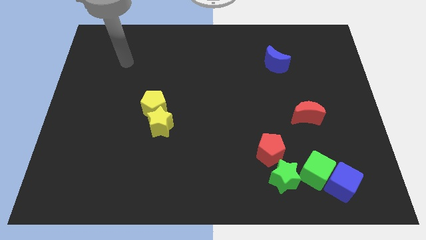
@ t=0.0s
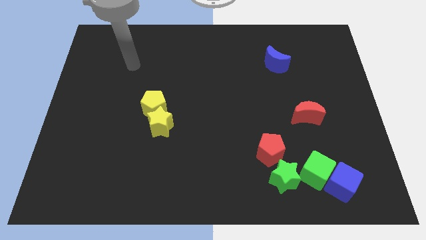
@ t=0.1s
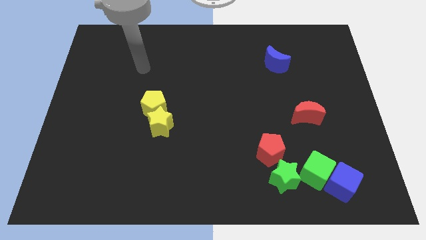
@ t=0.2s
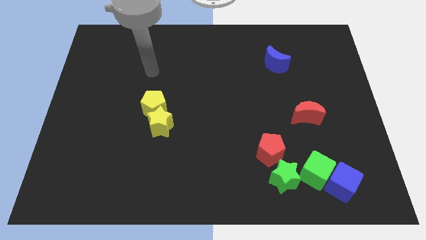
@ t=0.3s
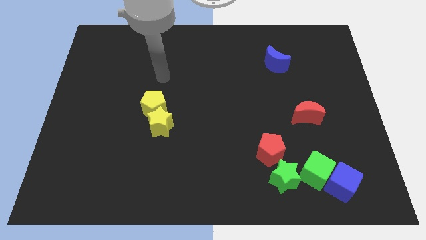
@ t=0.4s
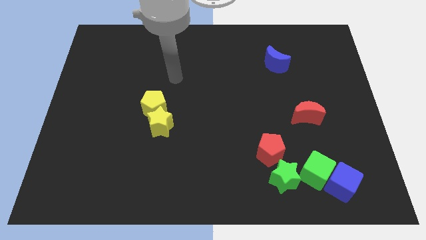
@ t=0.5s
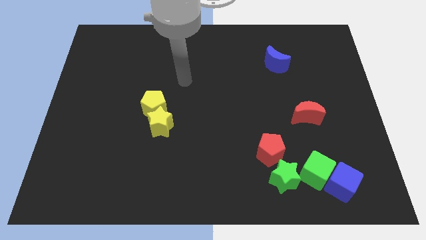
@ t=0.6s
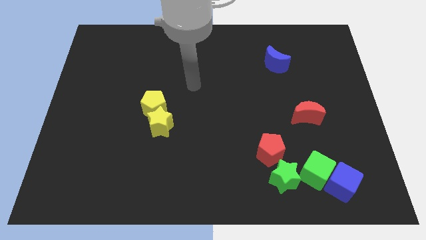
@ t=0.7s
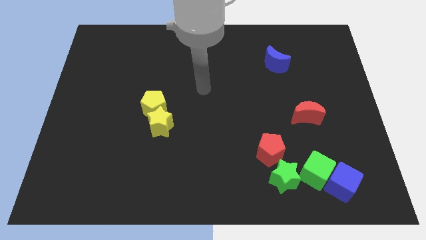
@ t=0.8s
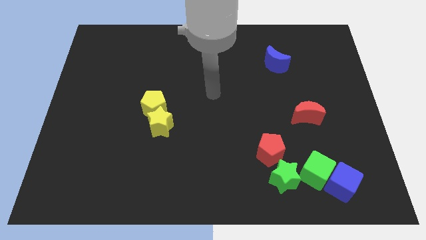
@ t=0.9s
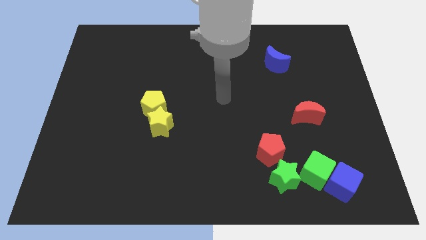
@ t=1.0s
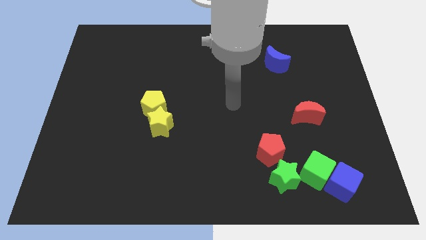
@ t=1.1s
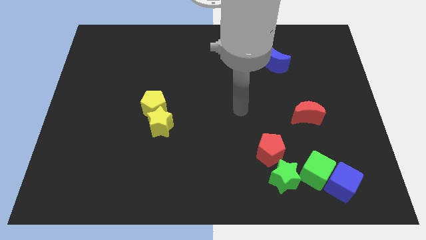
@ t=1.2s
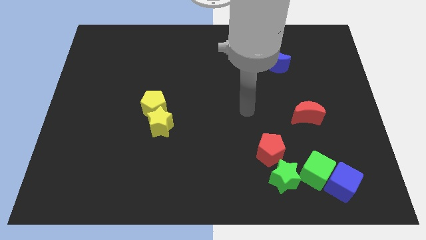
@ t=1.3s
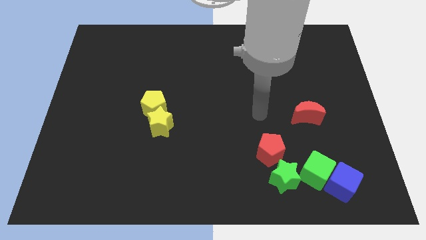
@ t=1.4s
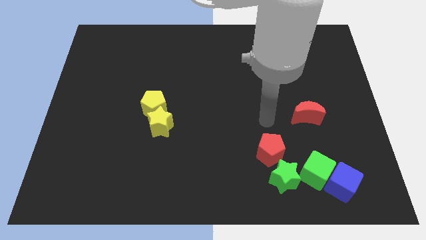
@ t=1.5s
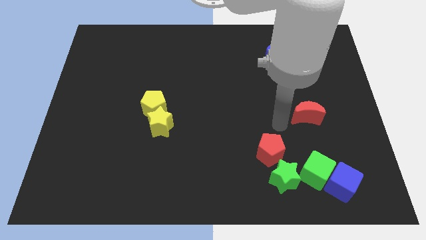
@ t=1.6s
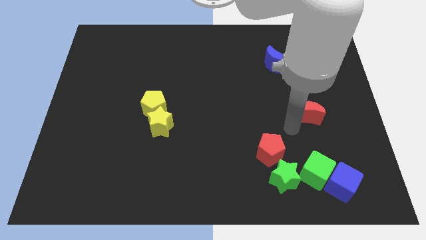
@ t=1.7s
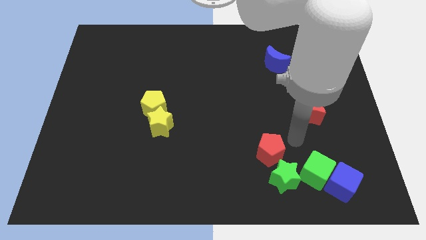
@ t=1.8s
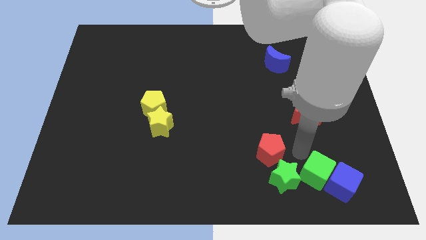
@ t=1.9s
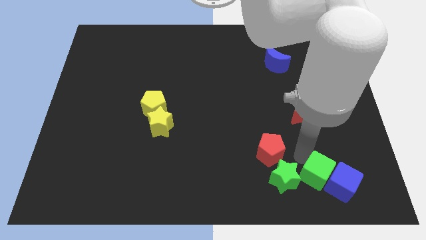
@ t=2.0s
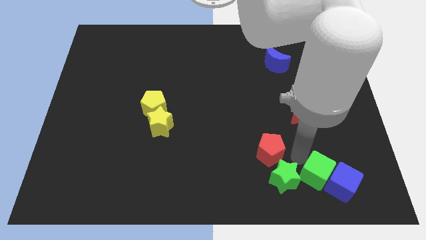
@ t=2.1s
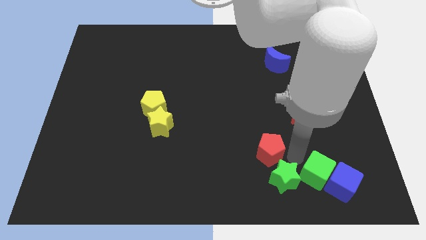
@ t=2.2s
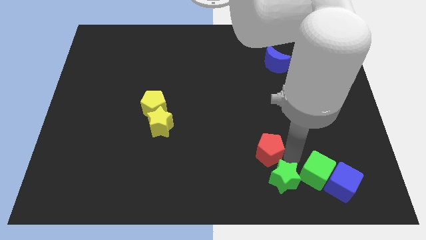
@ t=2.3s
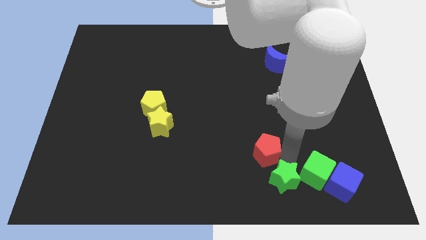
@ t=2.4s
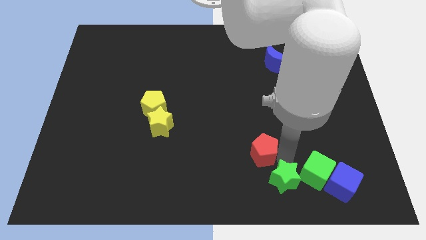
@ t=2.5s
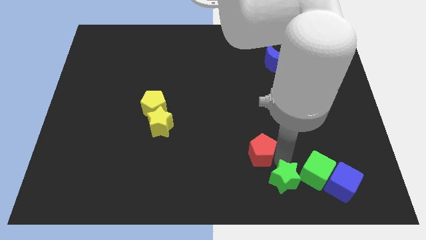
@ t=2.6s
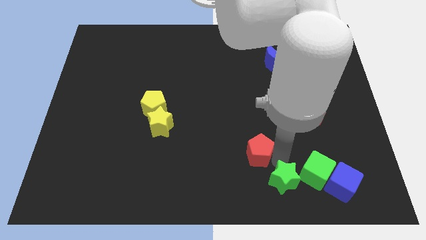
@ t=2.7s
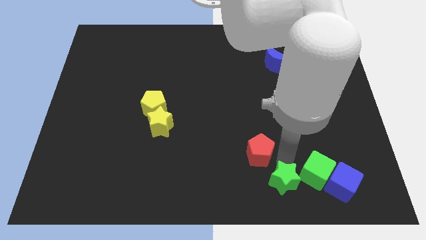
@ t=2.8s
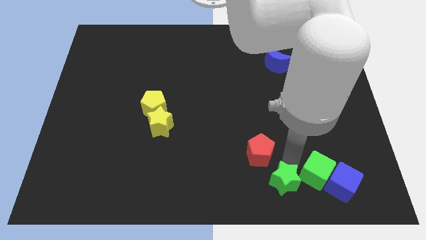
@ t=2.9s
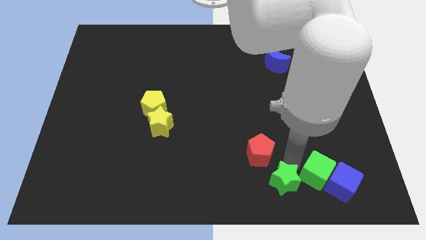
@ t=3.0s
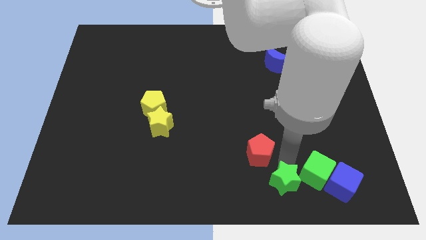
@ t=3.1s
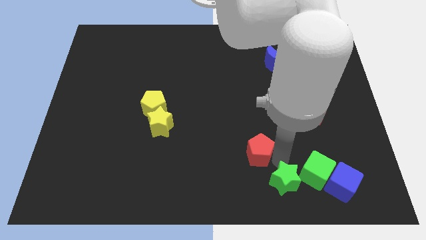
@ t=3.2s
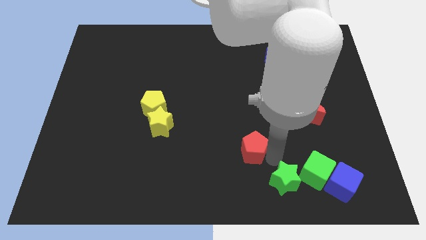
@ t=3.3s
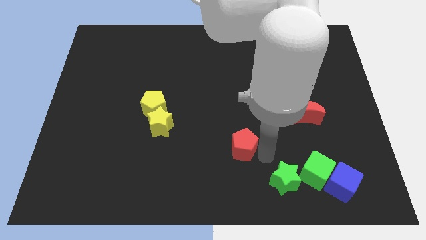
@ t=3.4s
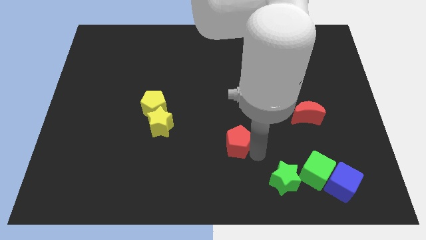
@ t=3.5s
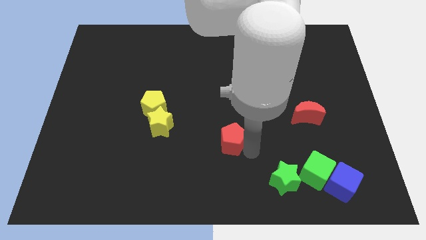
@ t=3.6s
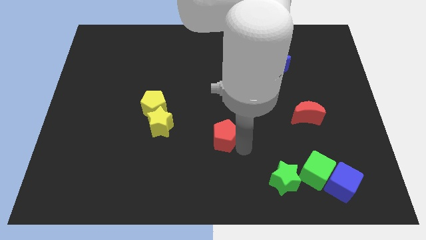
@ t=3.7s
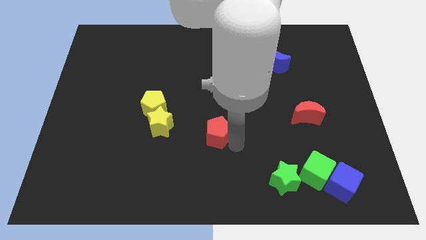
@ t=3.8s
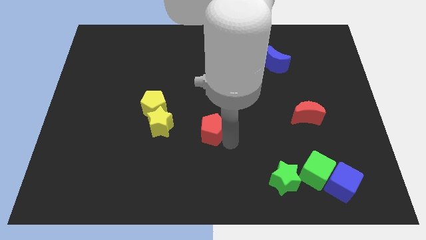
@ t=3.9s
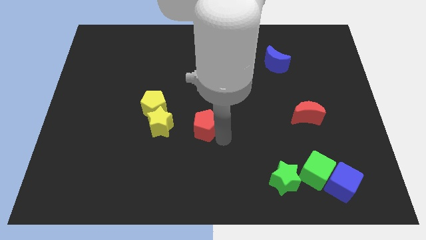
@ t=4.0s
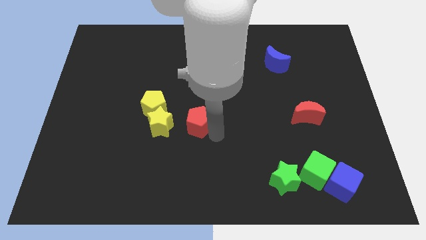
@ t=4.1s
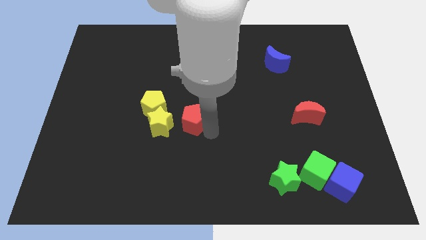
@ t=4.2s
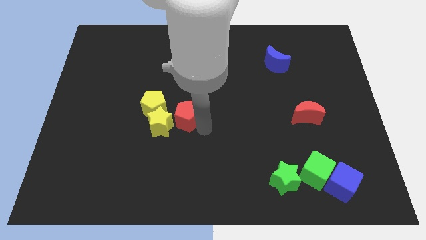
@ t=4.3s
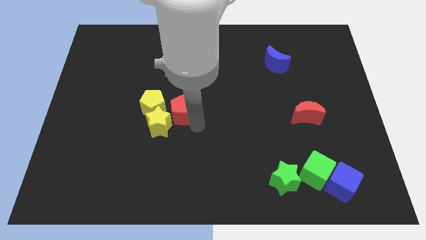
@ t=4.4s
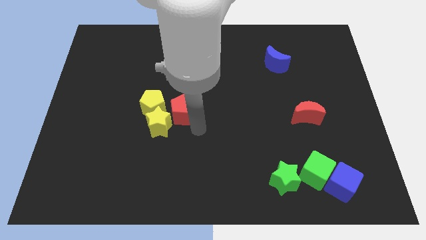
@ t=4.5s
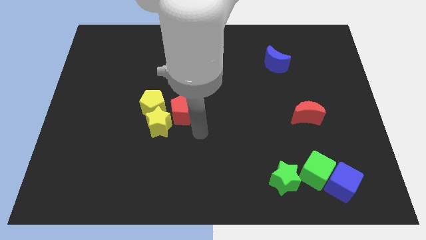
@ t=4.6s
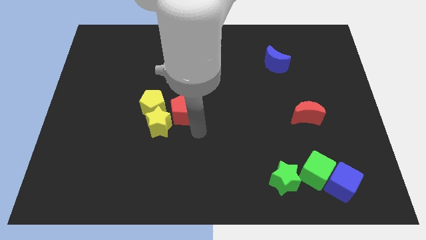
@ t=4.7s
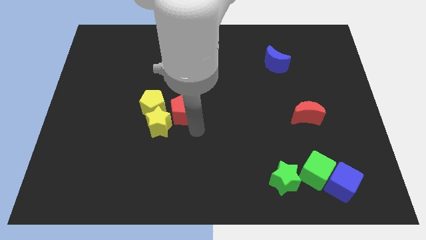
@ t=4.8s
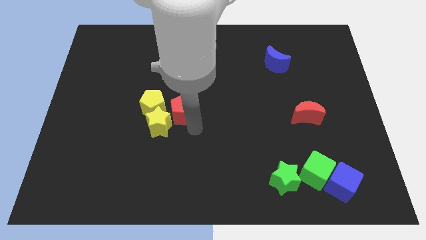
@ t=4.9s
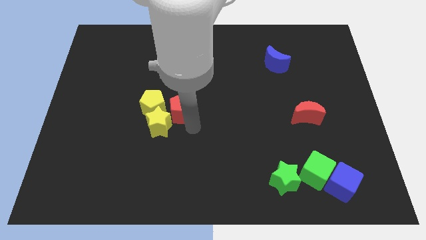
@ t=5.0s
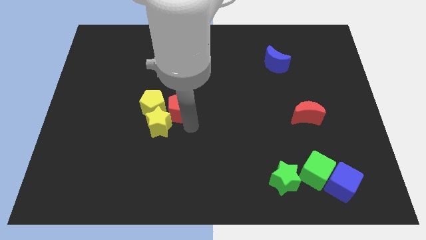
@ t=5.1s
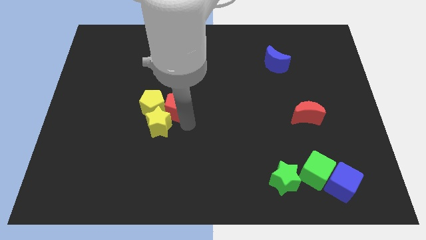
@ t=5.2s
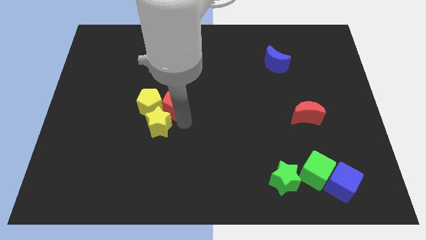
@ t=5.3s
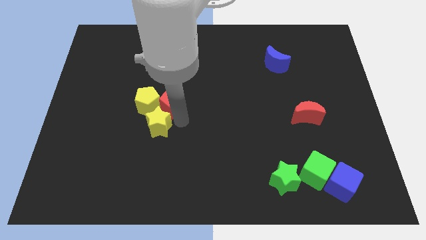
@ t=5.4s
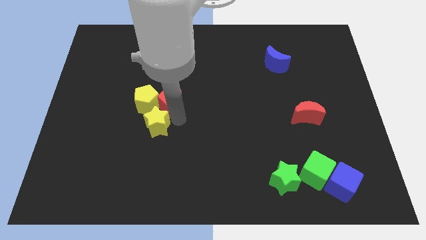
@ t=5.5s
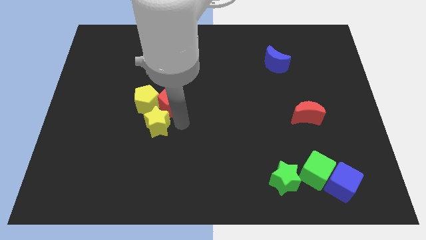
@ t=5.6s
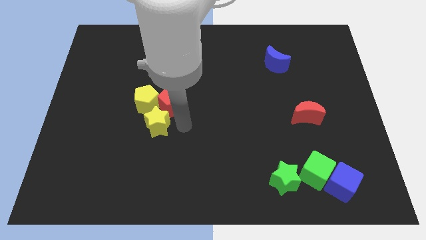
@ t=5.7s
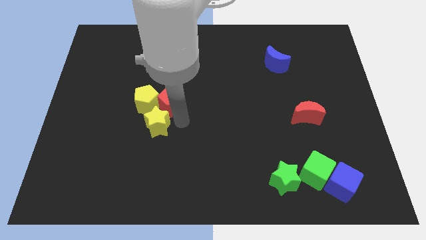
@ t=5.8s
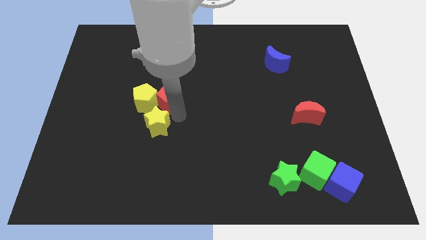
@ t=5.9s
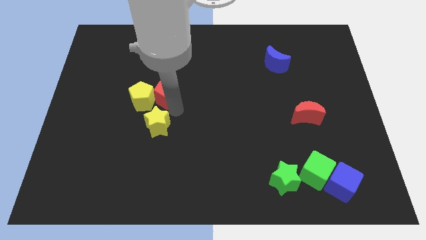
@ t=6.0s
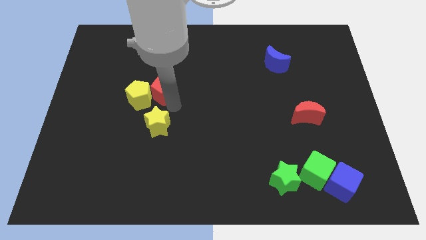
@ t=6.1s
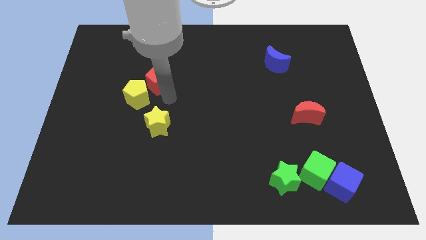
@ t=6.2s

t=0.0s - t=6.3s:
put the red pentagon to the top of the yellow pentagon

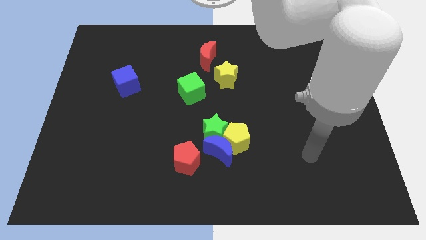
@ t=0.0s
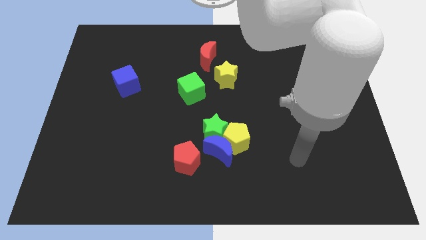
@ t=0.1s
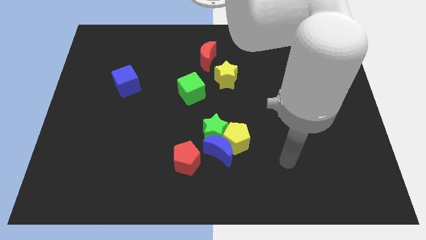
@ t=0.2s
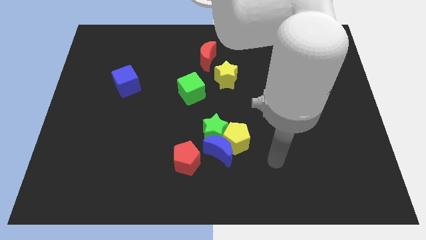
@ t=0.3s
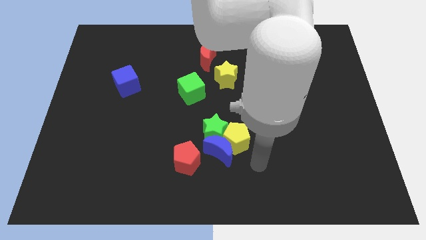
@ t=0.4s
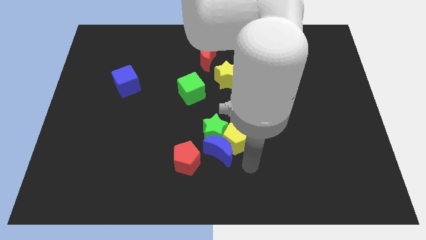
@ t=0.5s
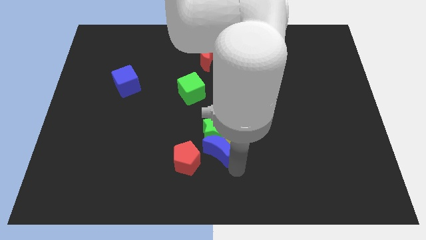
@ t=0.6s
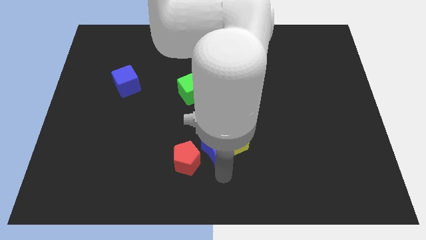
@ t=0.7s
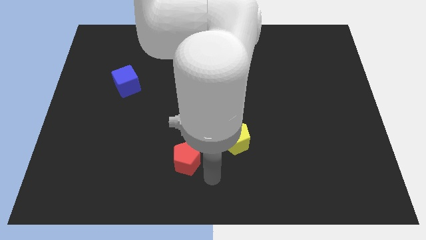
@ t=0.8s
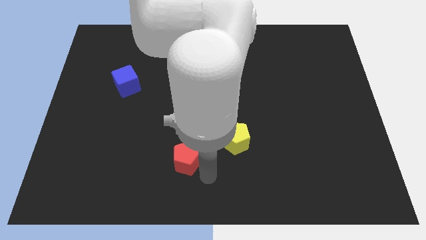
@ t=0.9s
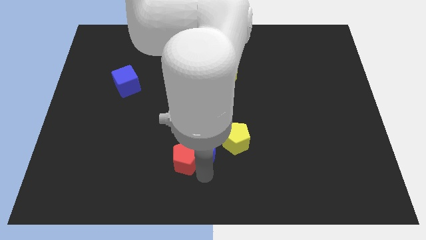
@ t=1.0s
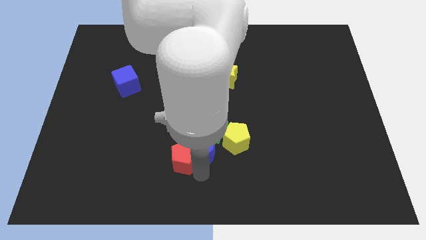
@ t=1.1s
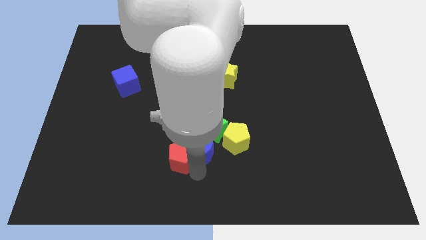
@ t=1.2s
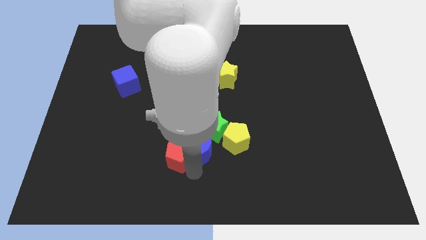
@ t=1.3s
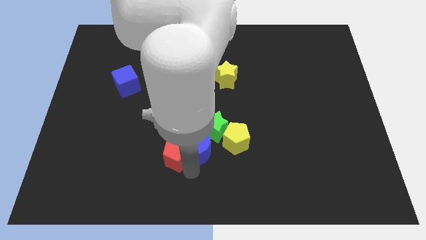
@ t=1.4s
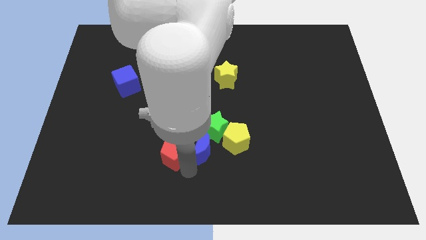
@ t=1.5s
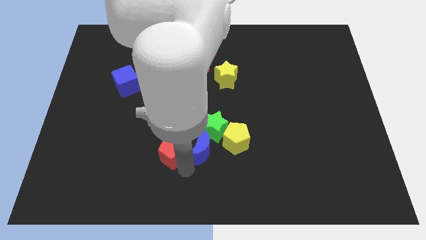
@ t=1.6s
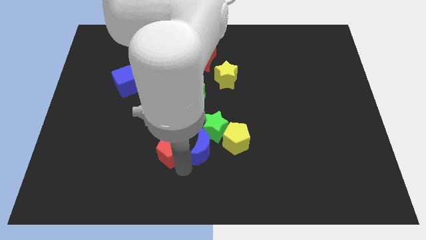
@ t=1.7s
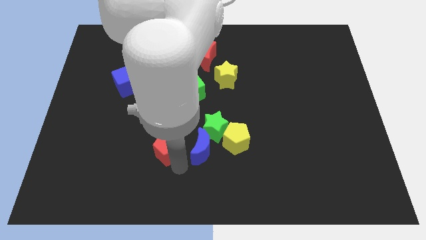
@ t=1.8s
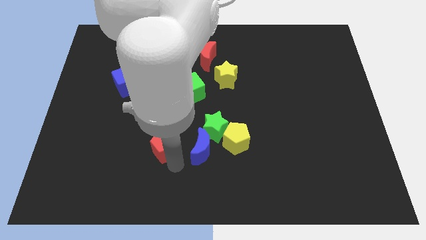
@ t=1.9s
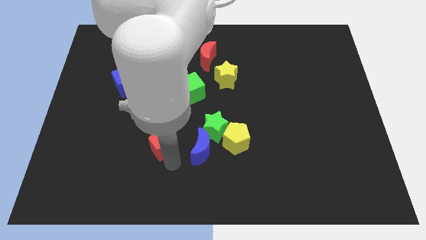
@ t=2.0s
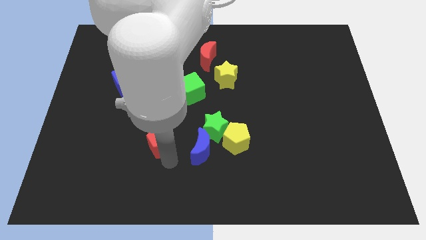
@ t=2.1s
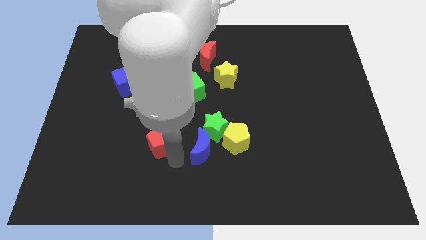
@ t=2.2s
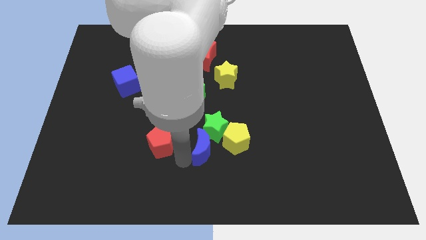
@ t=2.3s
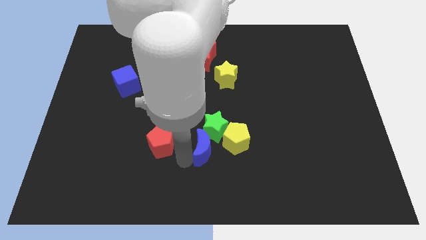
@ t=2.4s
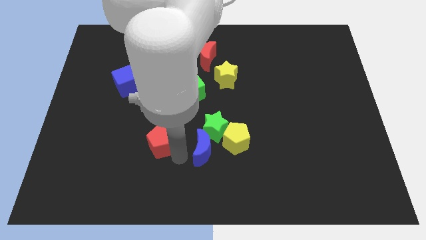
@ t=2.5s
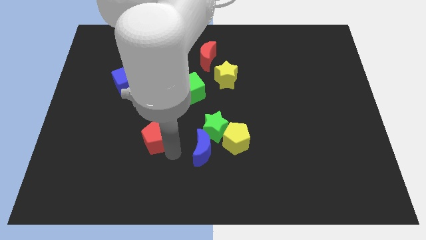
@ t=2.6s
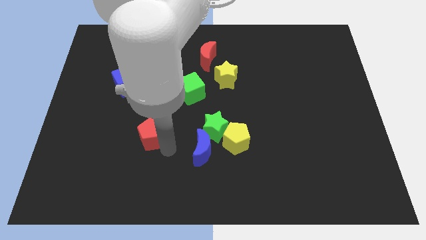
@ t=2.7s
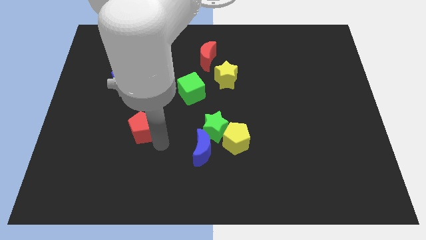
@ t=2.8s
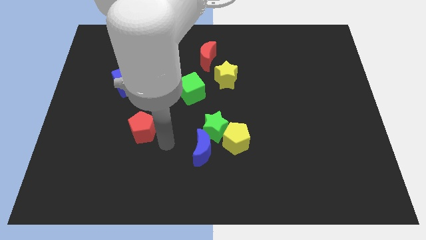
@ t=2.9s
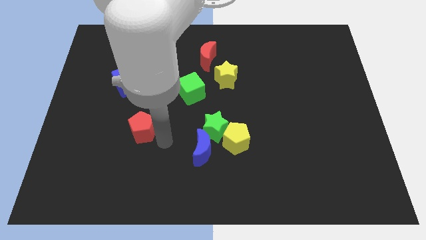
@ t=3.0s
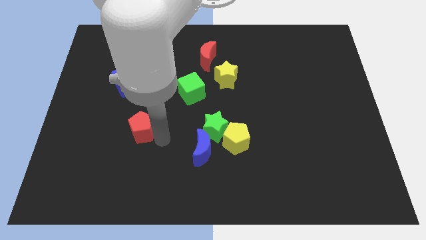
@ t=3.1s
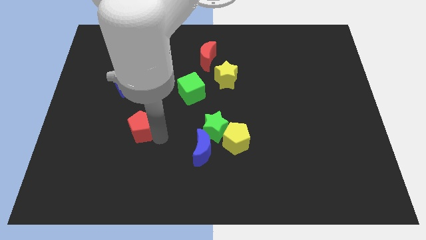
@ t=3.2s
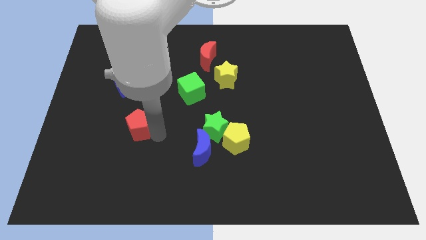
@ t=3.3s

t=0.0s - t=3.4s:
move the red pentagon below the blue cube
